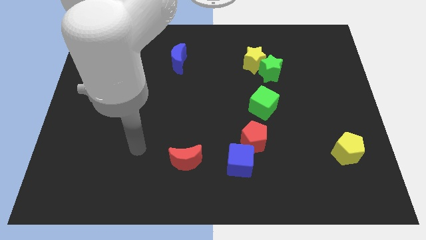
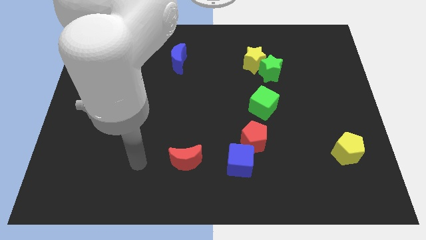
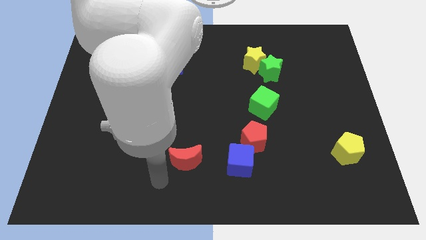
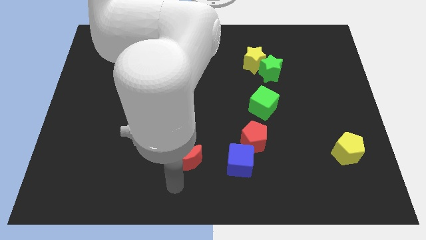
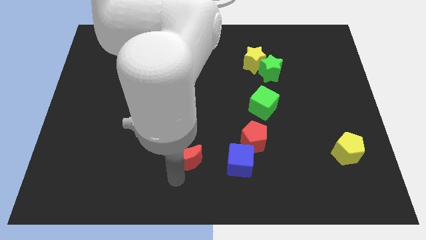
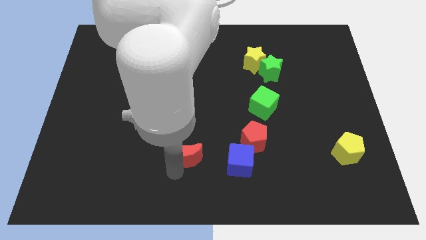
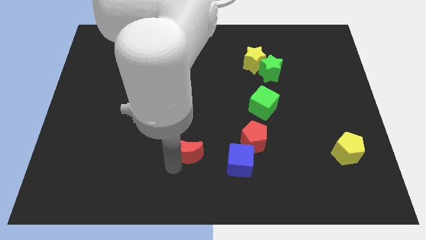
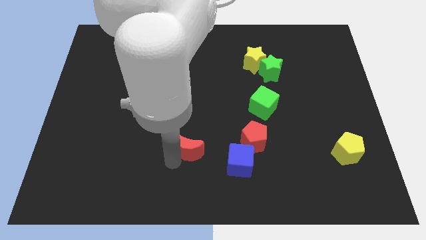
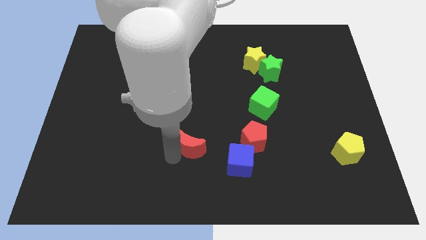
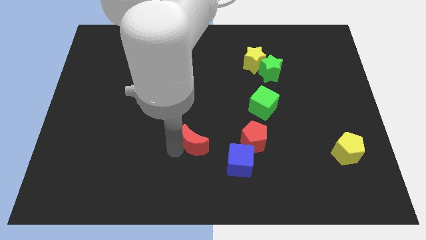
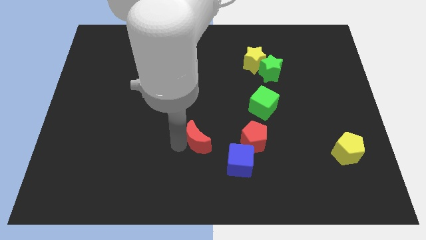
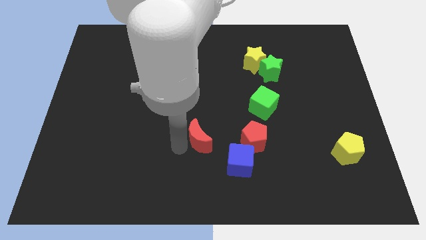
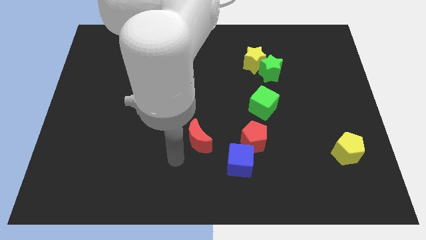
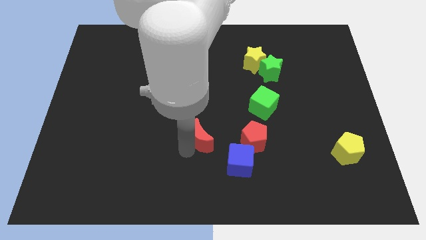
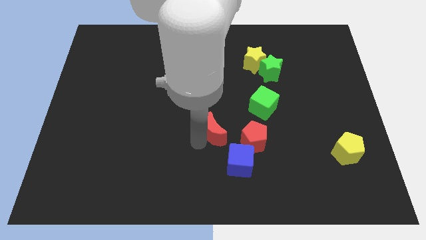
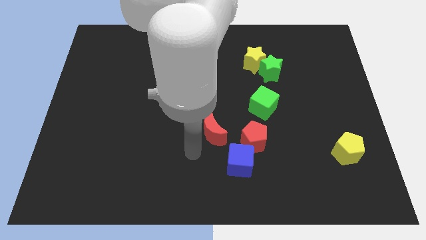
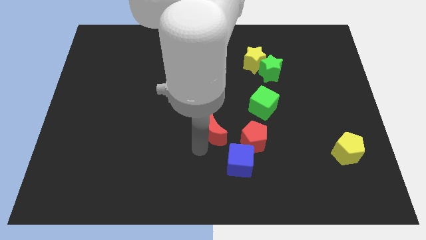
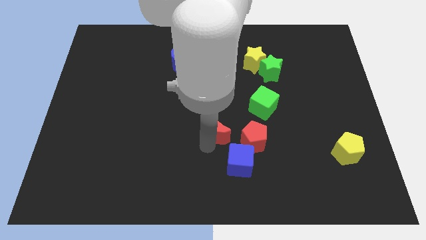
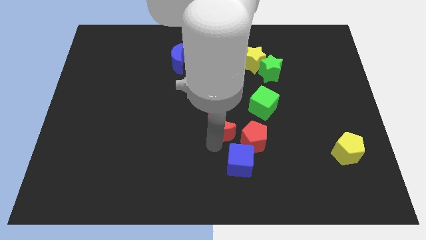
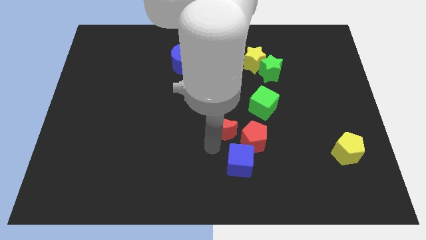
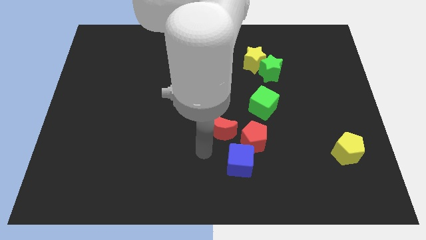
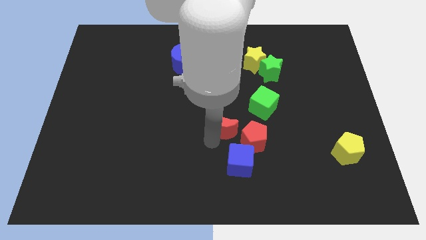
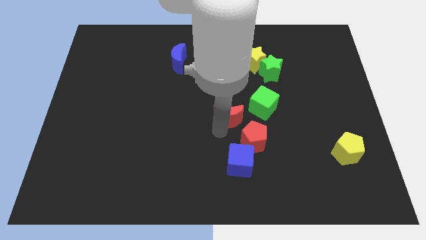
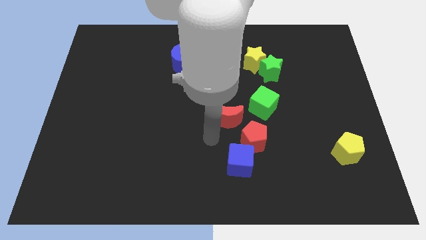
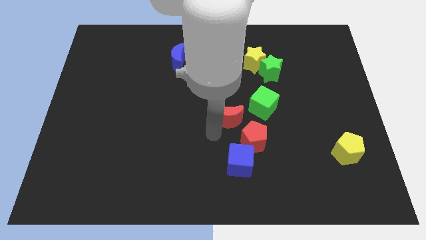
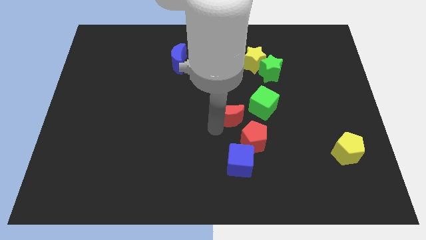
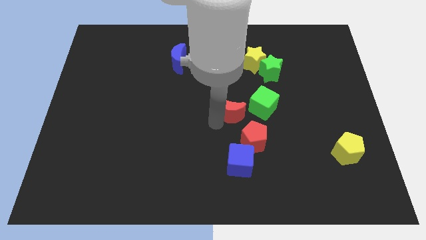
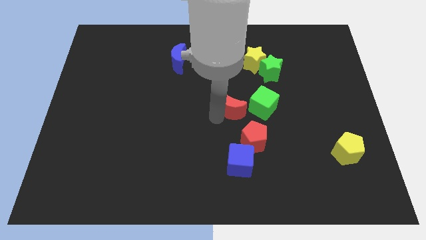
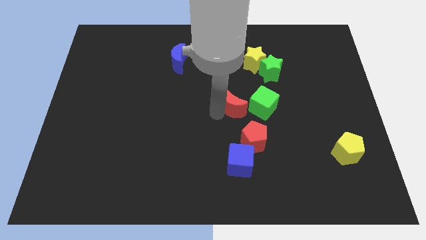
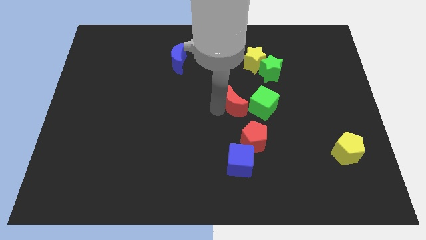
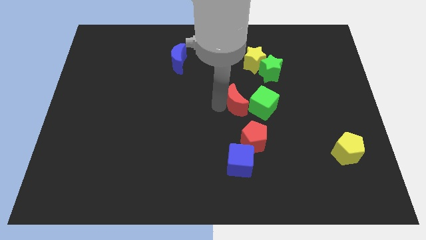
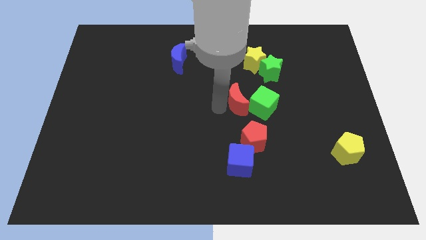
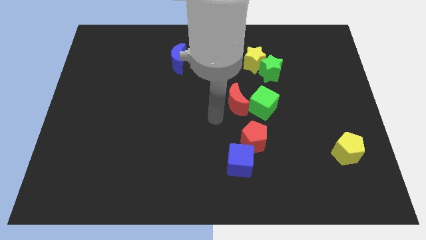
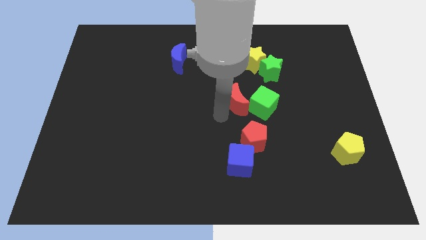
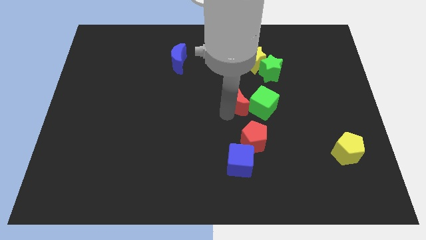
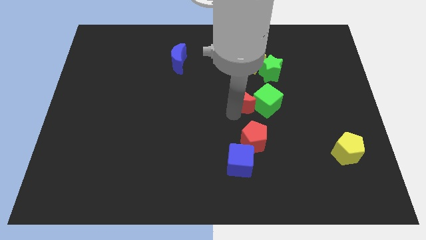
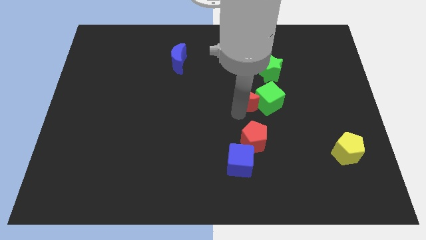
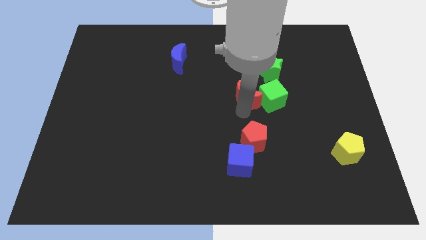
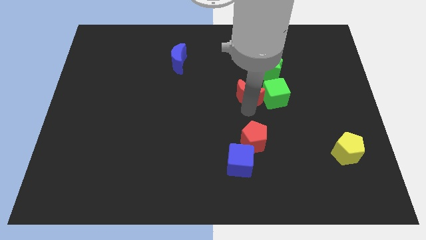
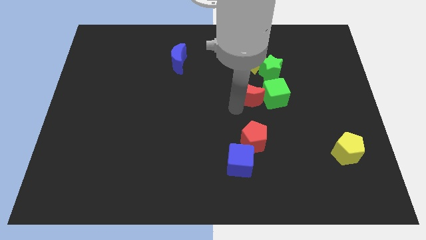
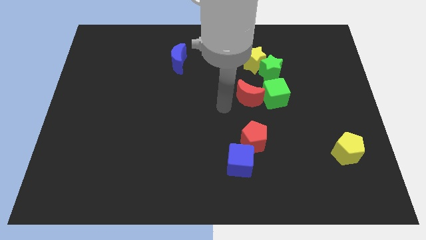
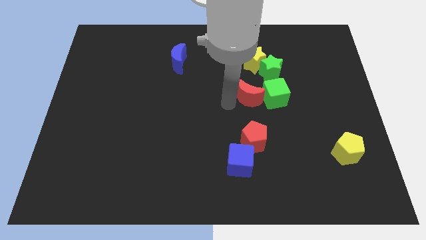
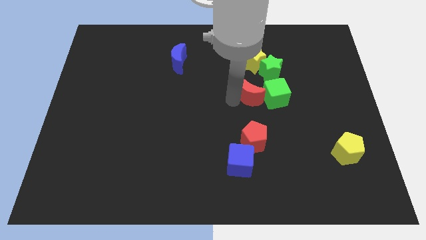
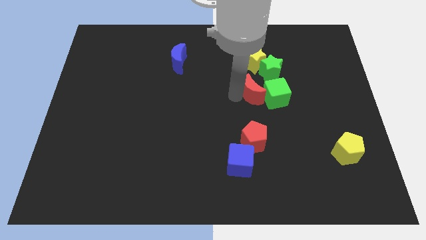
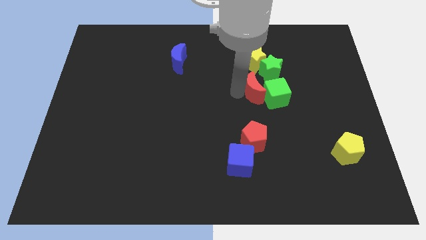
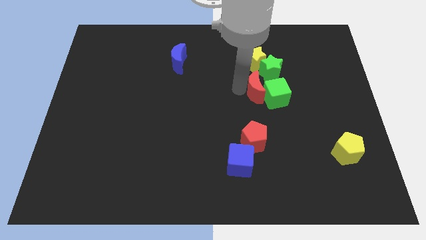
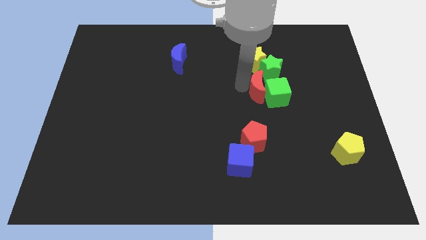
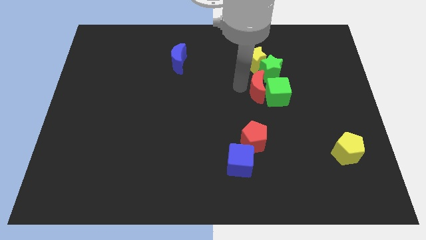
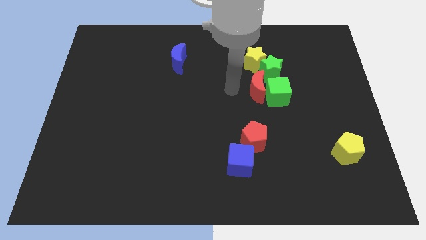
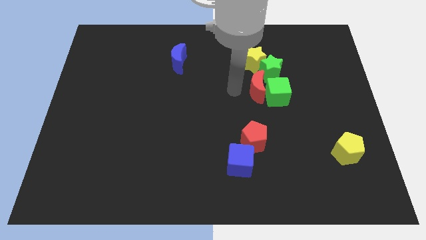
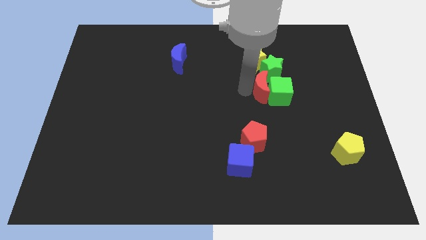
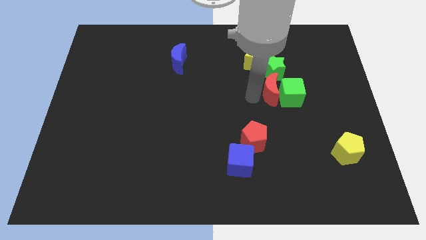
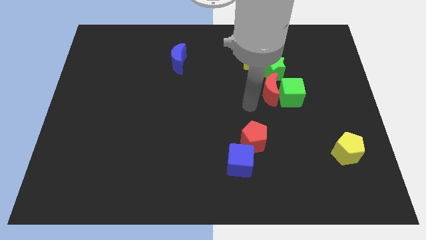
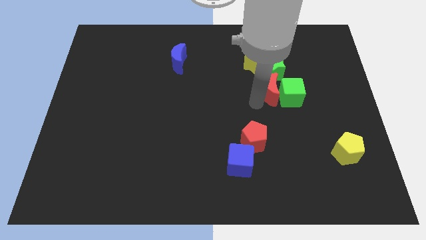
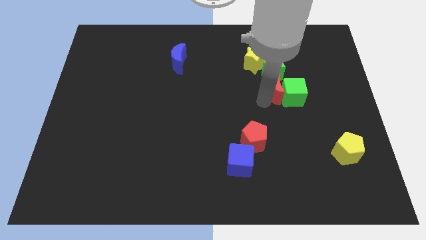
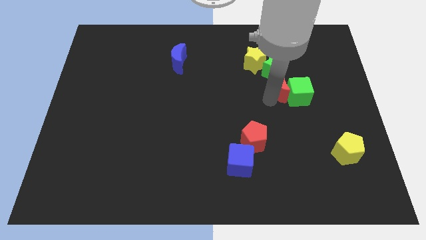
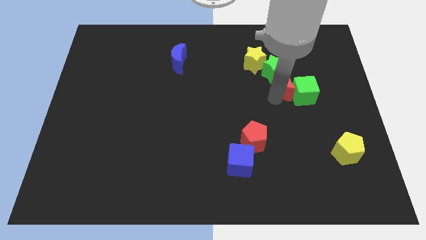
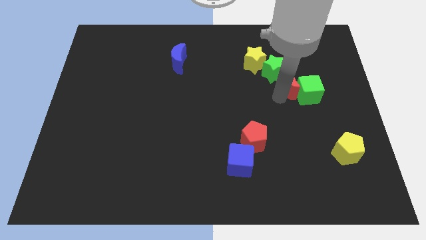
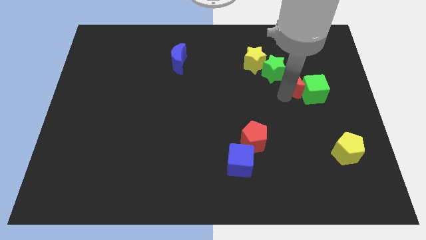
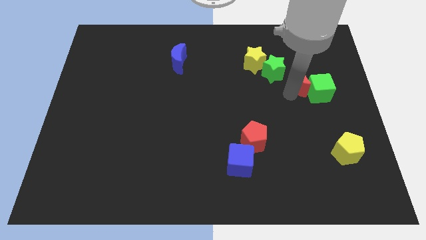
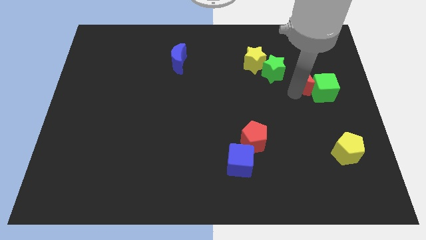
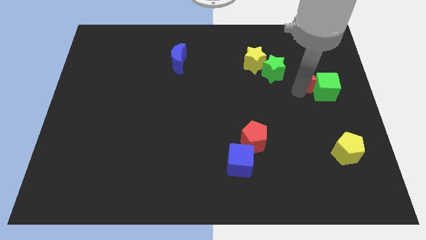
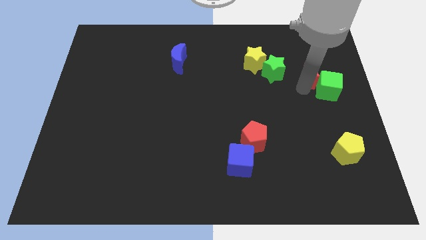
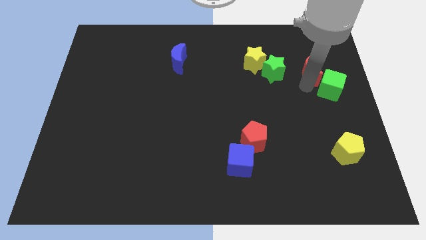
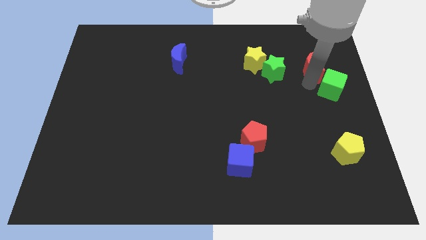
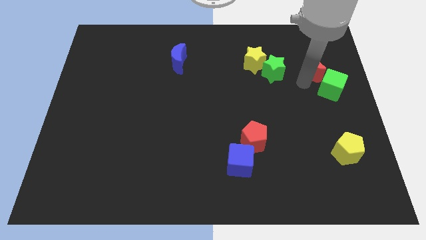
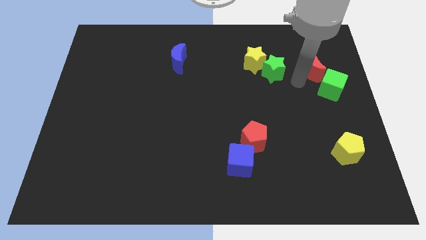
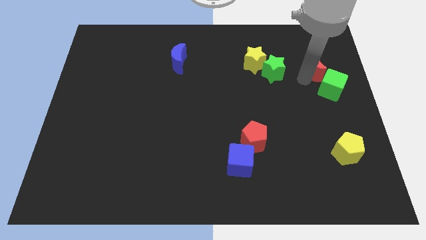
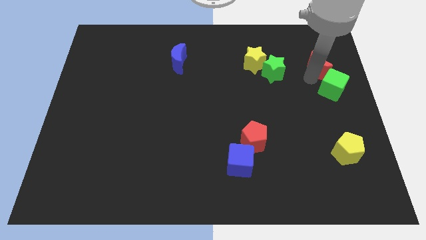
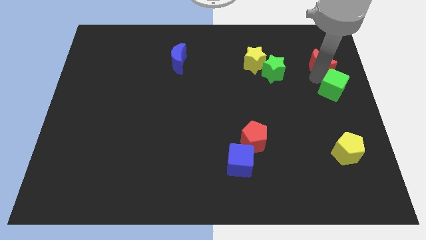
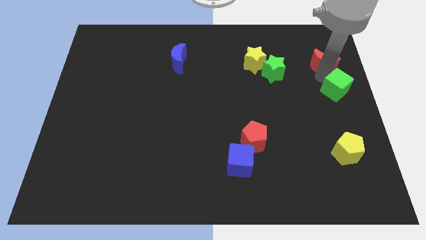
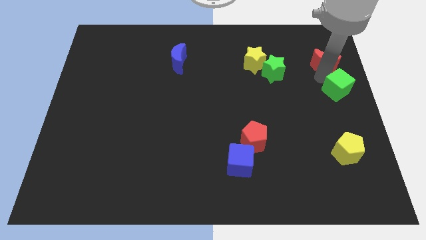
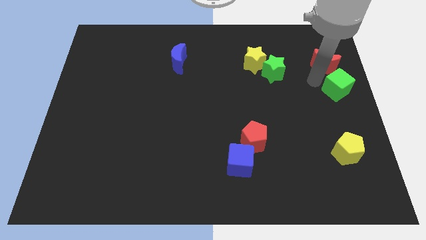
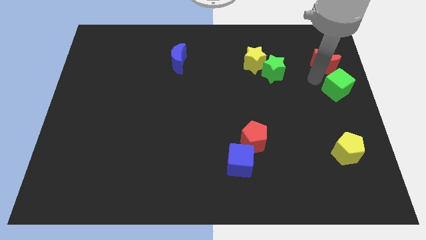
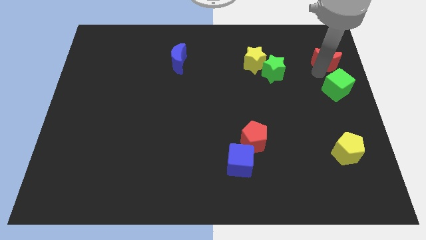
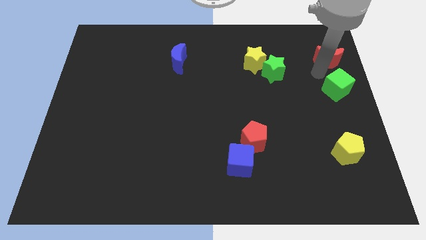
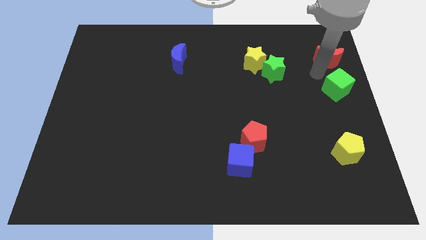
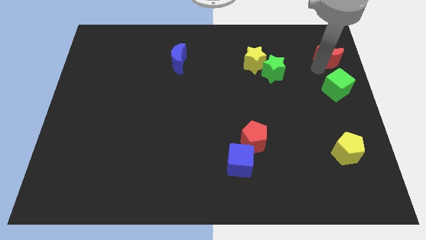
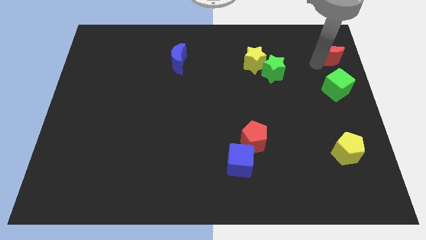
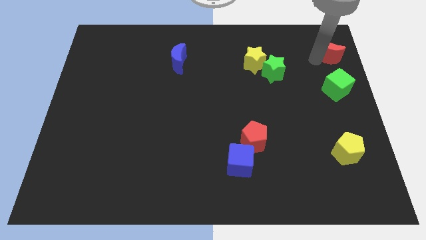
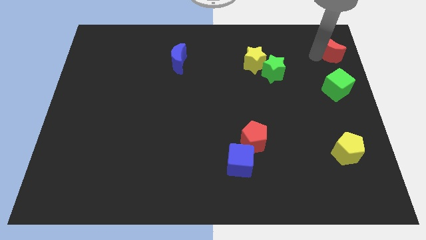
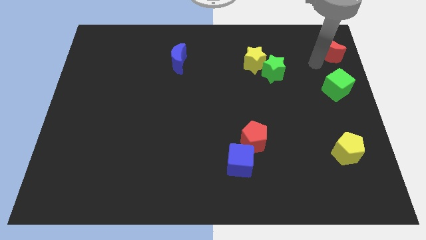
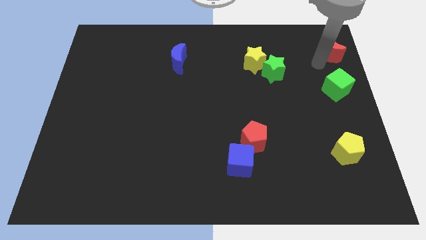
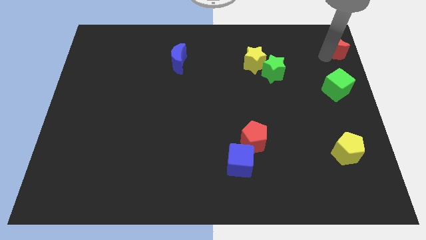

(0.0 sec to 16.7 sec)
move the red moon to the upper right corner
